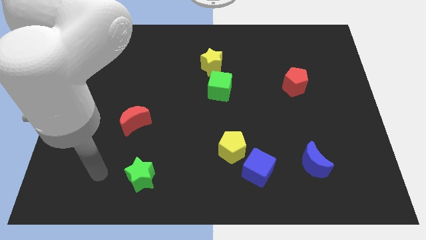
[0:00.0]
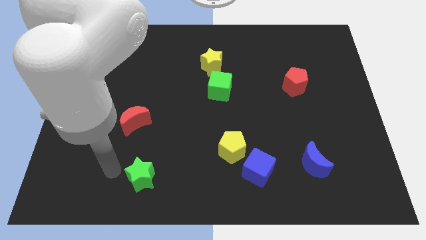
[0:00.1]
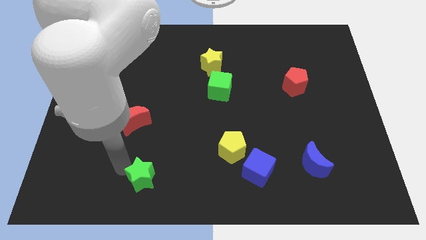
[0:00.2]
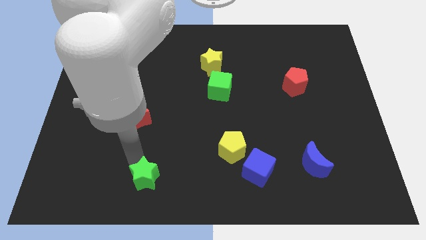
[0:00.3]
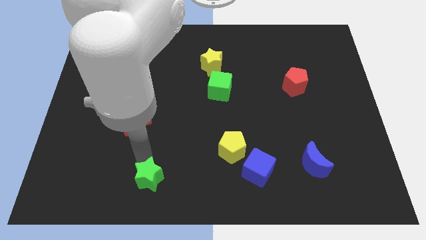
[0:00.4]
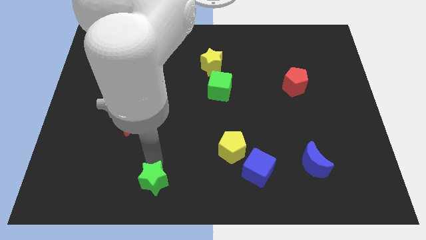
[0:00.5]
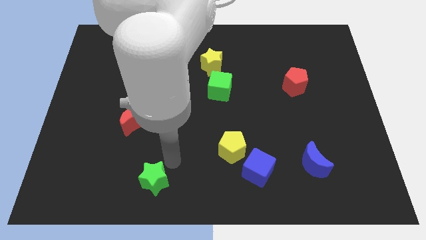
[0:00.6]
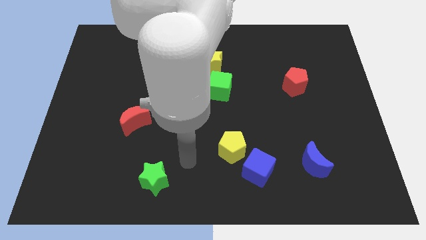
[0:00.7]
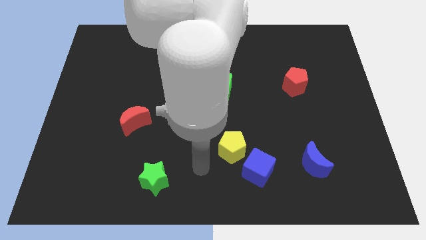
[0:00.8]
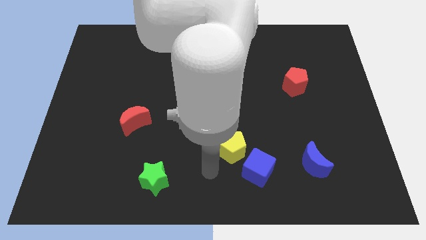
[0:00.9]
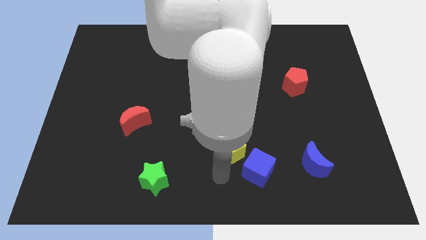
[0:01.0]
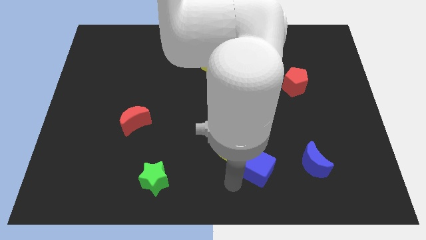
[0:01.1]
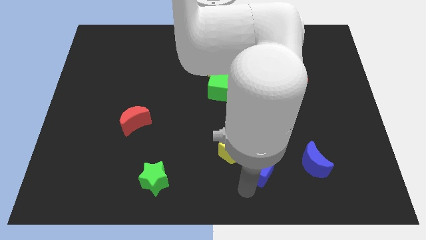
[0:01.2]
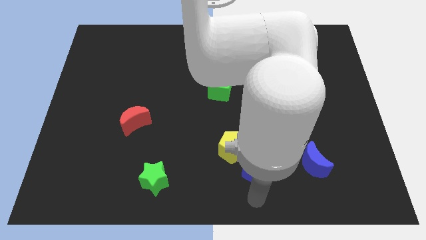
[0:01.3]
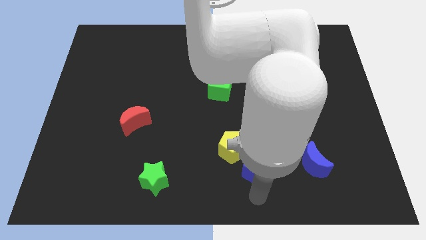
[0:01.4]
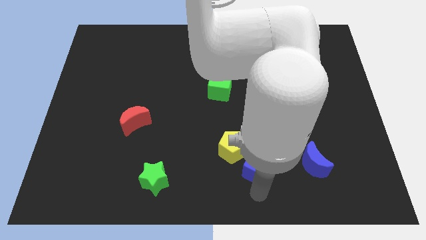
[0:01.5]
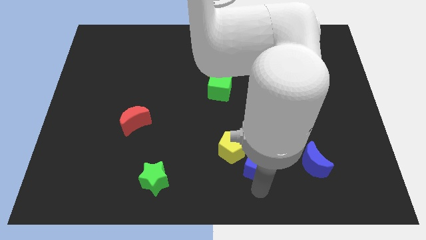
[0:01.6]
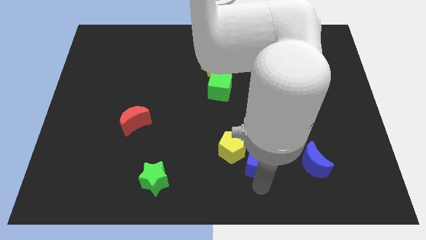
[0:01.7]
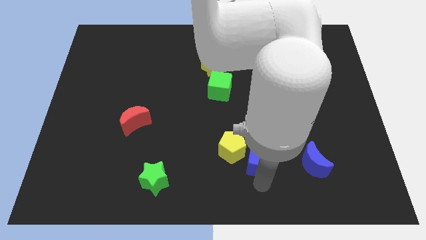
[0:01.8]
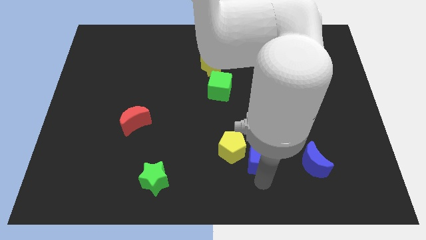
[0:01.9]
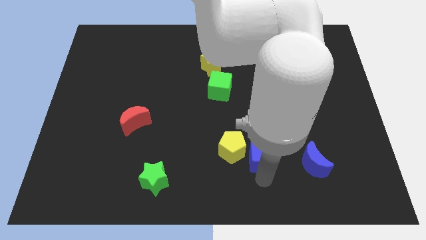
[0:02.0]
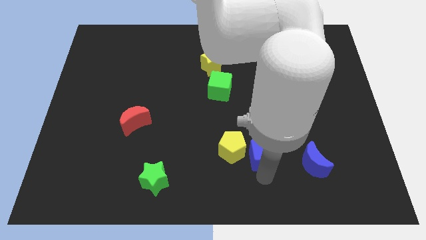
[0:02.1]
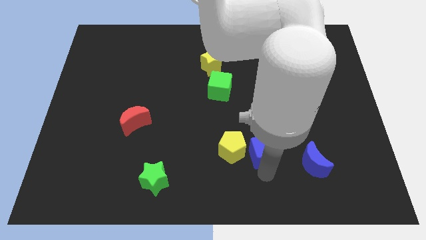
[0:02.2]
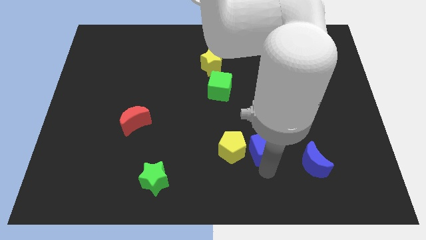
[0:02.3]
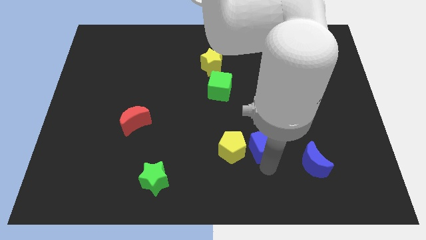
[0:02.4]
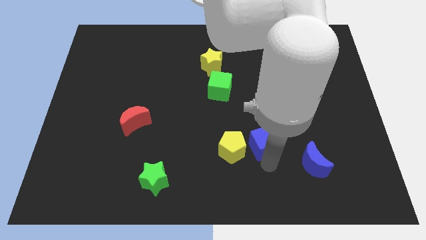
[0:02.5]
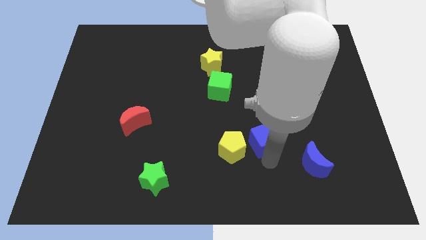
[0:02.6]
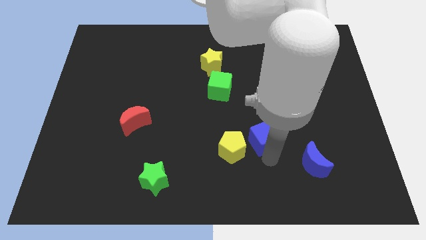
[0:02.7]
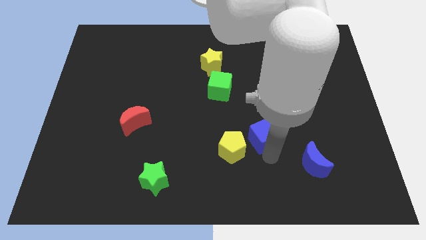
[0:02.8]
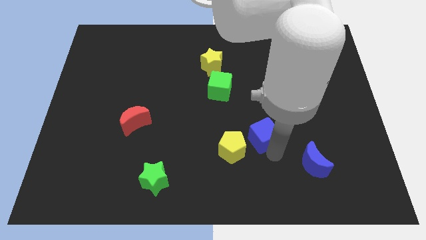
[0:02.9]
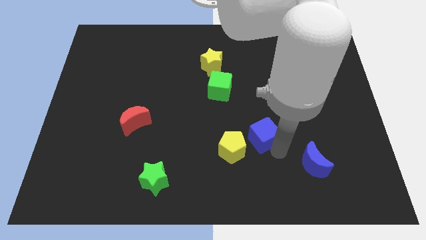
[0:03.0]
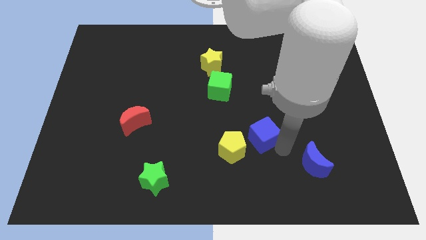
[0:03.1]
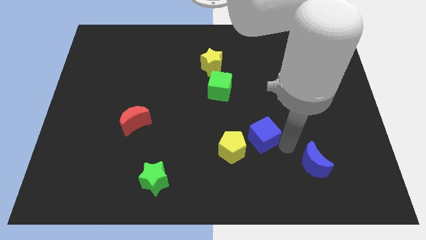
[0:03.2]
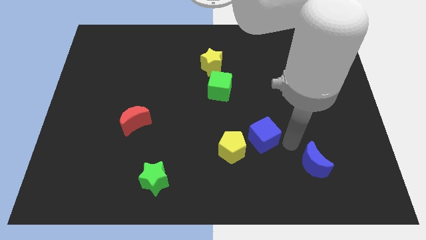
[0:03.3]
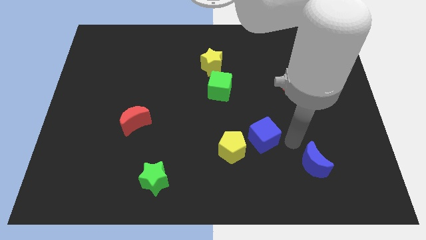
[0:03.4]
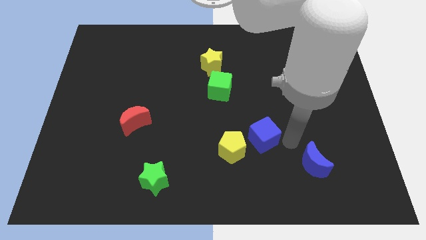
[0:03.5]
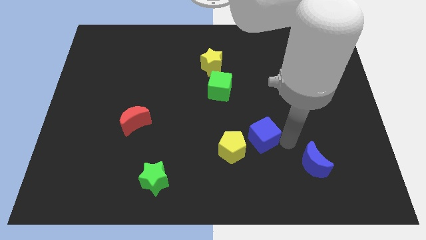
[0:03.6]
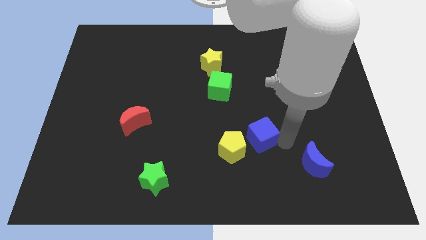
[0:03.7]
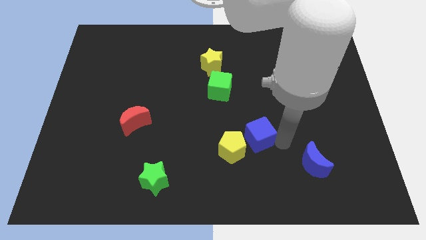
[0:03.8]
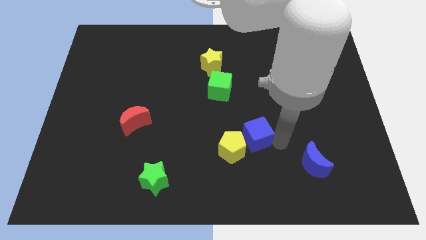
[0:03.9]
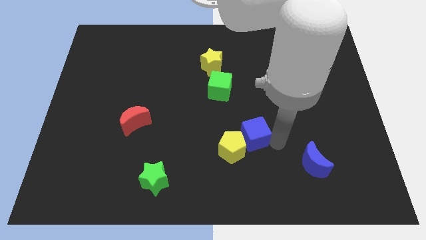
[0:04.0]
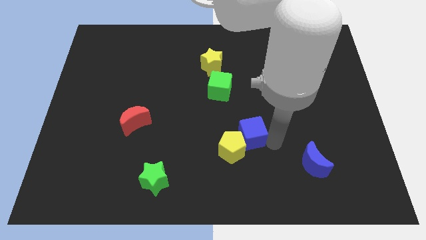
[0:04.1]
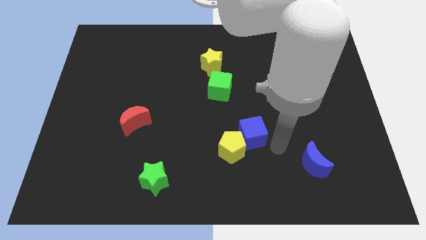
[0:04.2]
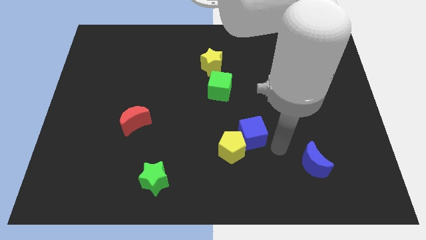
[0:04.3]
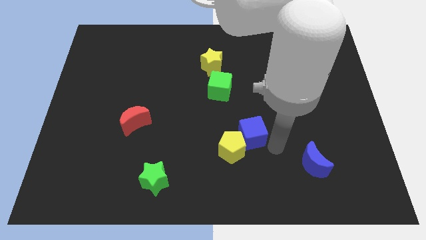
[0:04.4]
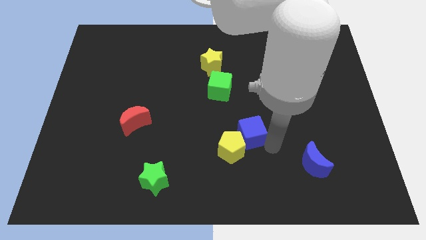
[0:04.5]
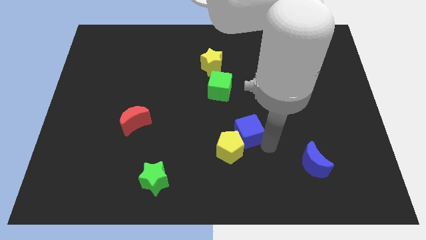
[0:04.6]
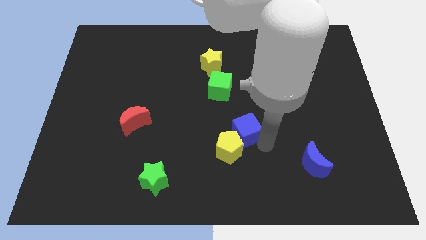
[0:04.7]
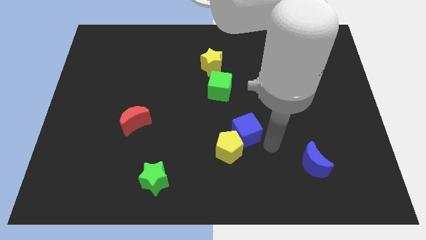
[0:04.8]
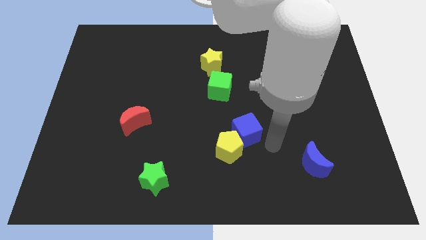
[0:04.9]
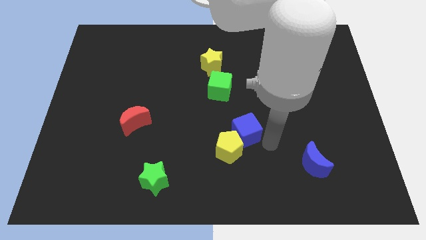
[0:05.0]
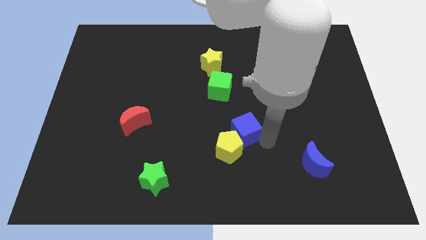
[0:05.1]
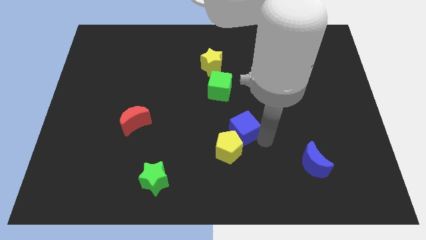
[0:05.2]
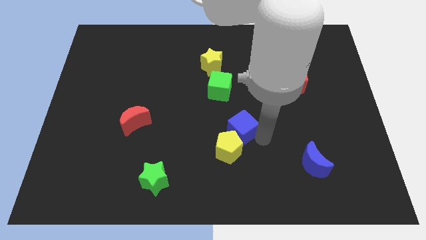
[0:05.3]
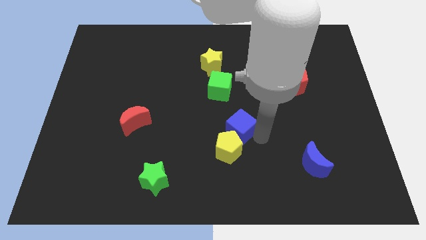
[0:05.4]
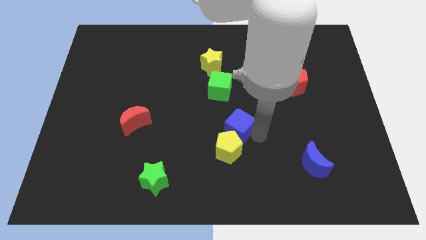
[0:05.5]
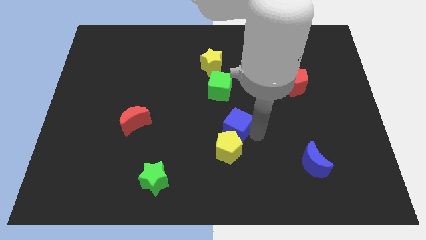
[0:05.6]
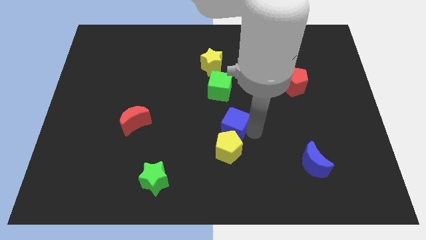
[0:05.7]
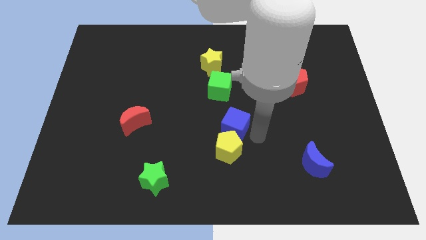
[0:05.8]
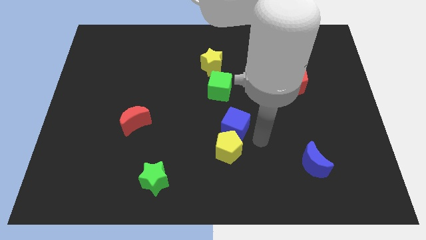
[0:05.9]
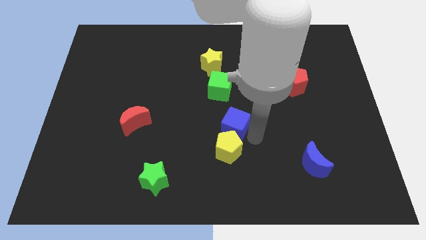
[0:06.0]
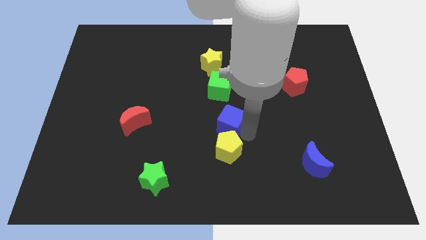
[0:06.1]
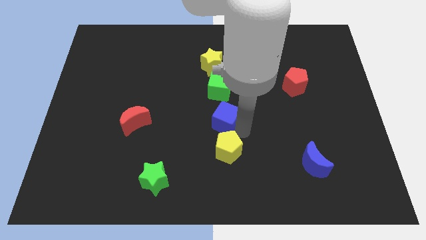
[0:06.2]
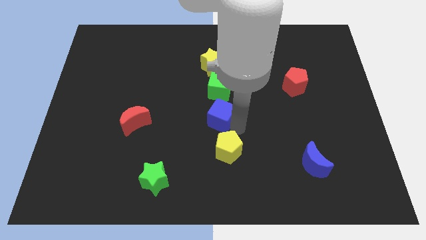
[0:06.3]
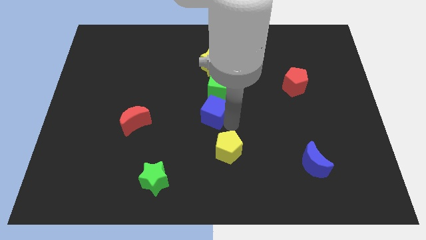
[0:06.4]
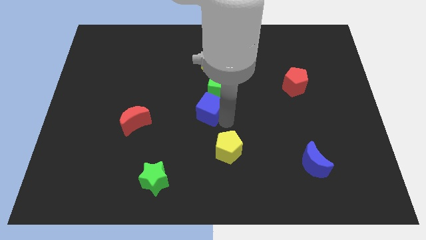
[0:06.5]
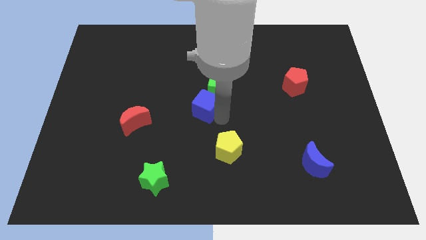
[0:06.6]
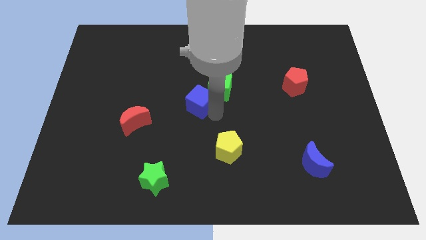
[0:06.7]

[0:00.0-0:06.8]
push the blue cube to the left side of the green cube
